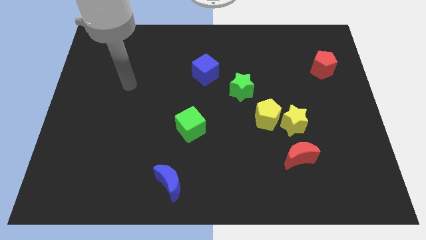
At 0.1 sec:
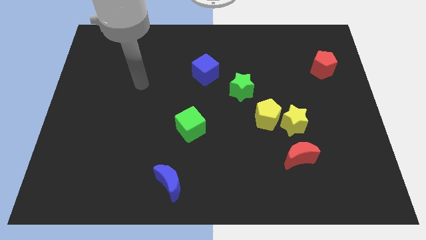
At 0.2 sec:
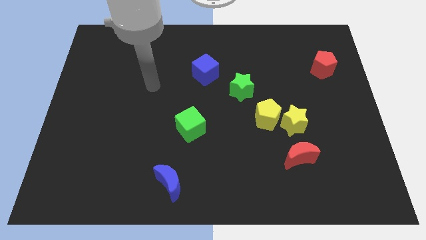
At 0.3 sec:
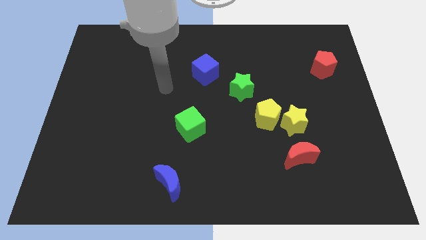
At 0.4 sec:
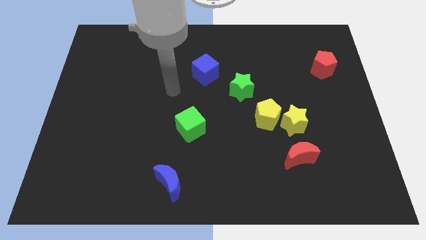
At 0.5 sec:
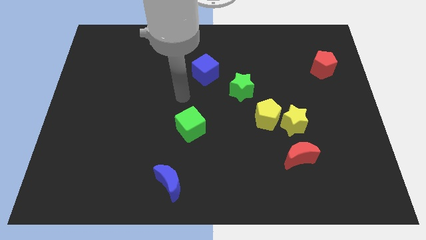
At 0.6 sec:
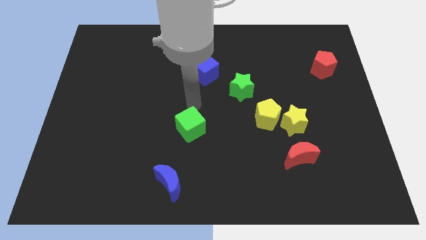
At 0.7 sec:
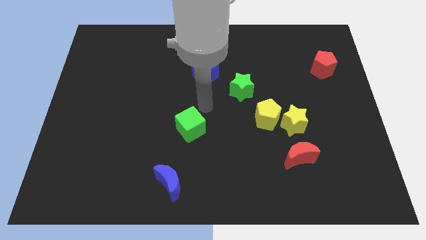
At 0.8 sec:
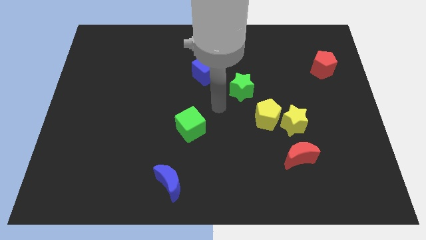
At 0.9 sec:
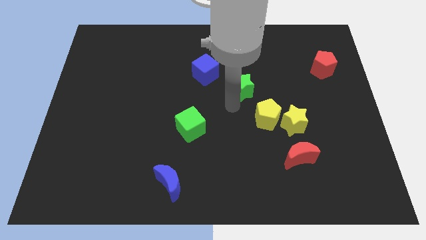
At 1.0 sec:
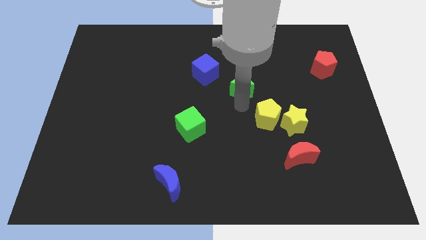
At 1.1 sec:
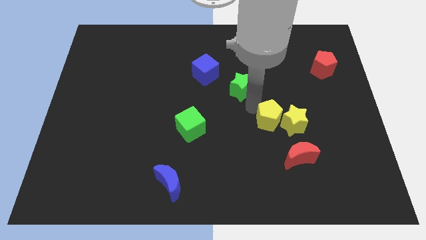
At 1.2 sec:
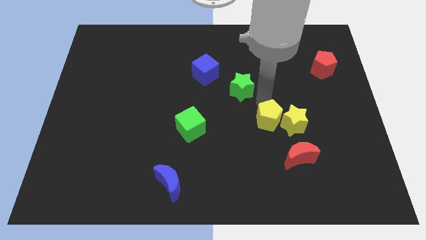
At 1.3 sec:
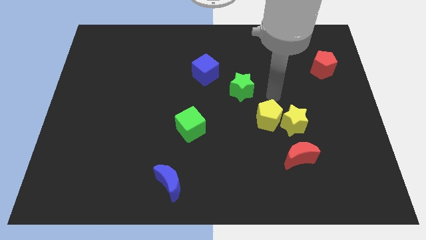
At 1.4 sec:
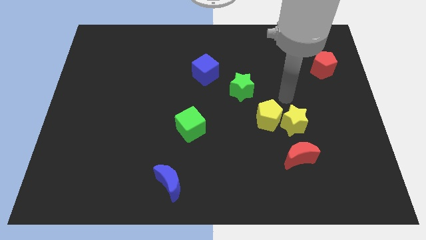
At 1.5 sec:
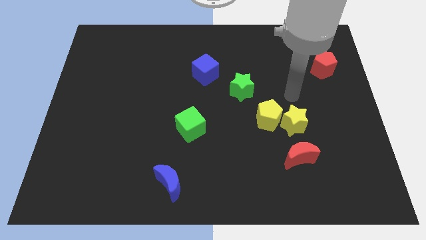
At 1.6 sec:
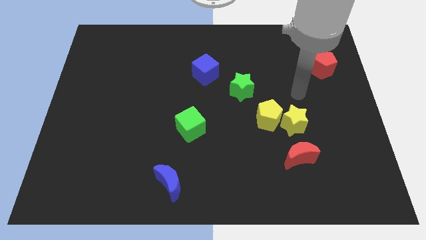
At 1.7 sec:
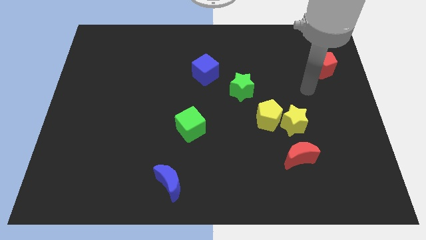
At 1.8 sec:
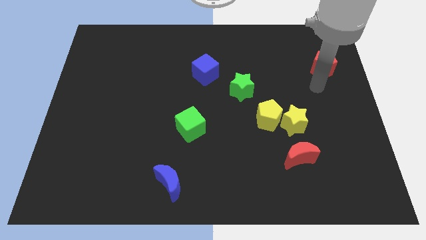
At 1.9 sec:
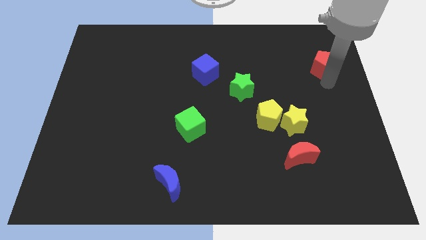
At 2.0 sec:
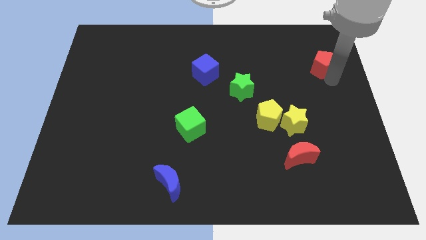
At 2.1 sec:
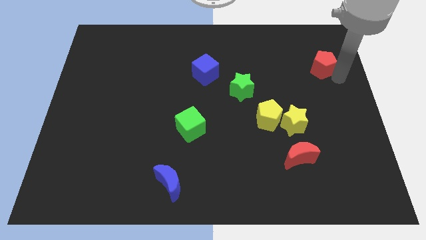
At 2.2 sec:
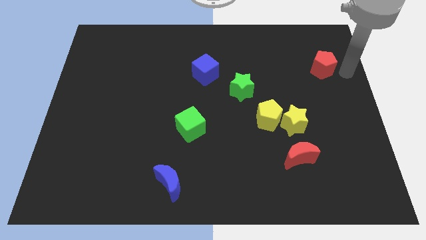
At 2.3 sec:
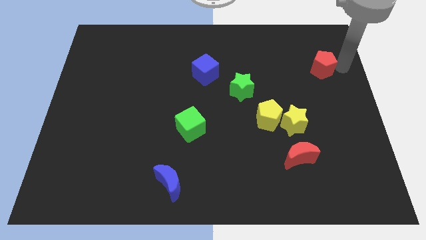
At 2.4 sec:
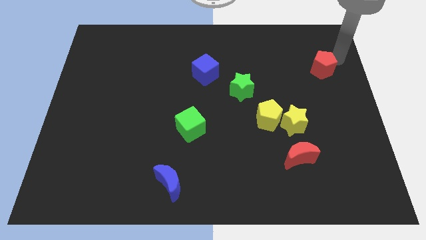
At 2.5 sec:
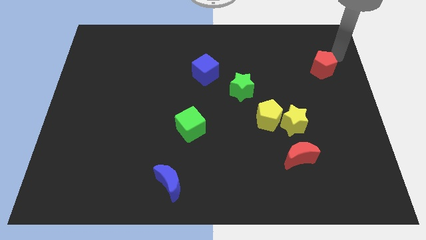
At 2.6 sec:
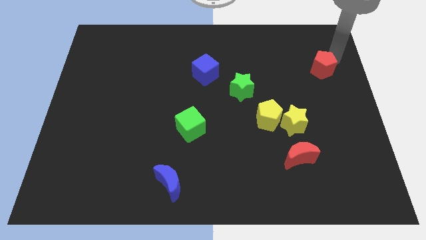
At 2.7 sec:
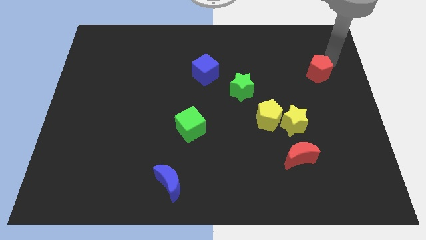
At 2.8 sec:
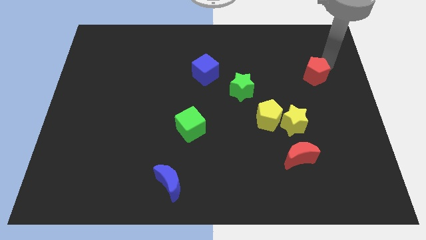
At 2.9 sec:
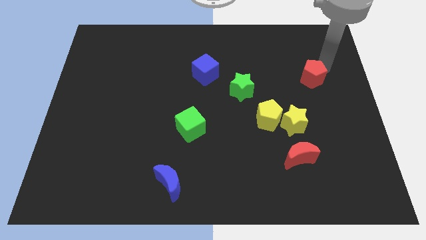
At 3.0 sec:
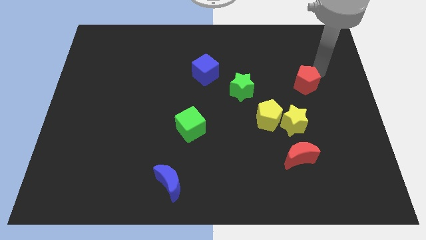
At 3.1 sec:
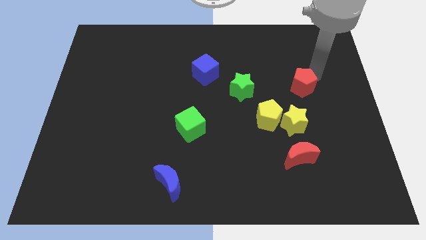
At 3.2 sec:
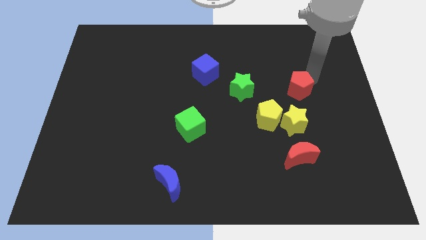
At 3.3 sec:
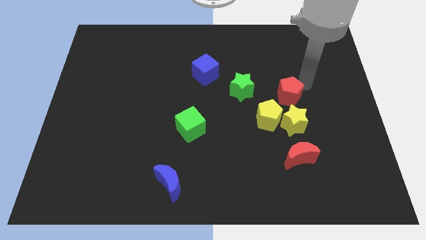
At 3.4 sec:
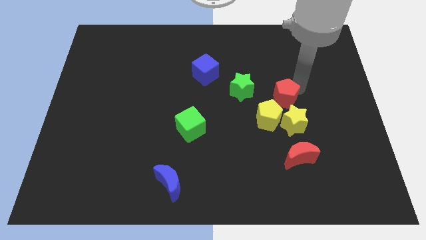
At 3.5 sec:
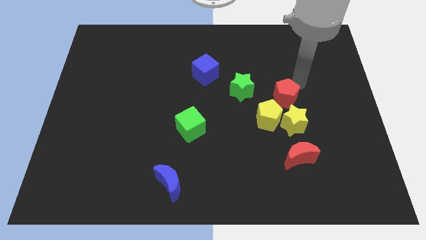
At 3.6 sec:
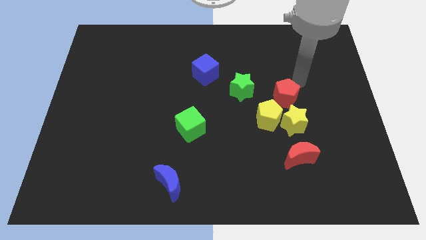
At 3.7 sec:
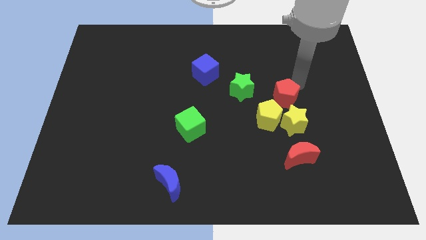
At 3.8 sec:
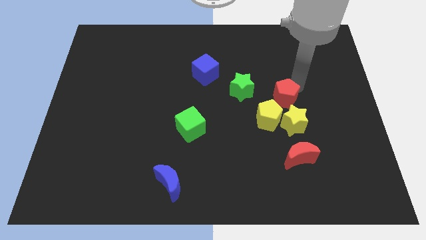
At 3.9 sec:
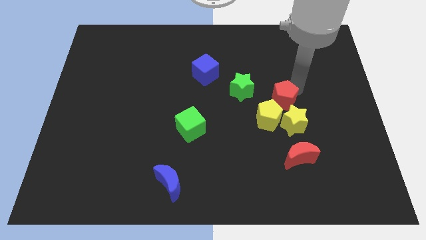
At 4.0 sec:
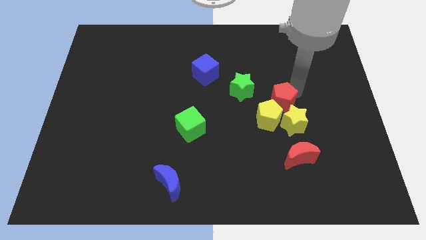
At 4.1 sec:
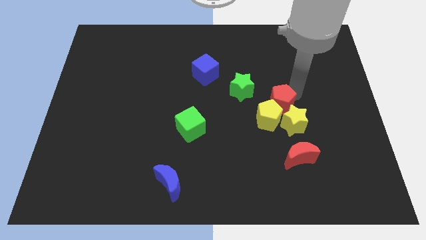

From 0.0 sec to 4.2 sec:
put the red pentagon to the yellow pentagon

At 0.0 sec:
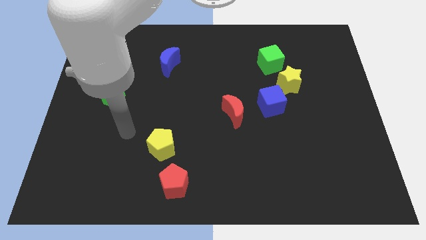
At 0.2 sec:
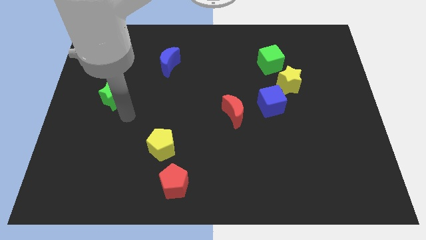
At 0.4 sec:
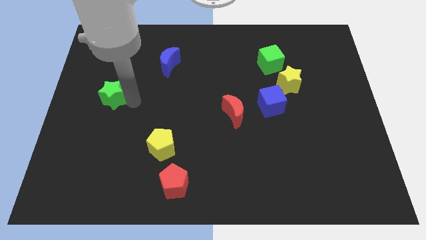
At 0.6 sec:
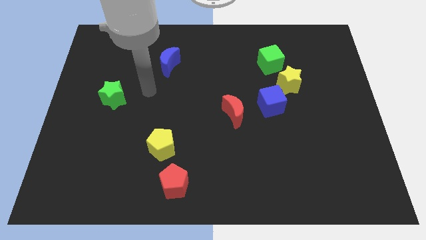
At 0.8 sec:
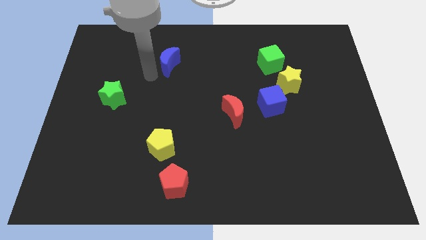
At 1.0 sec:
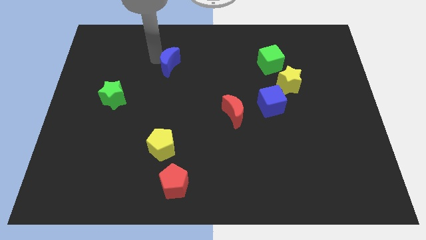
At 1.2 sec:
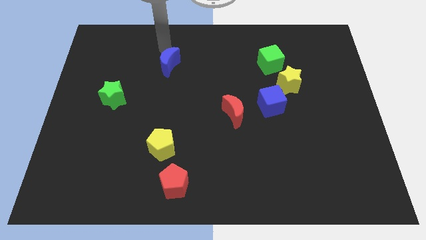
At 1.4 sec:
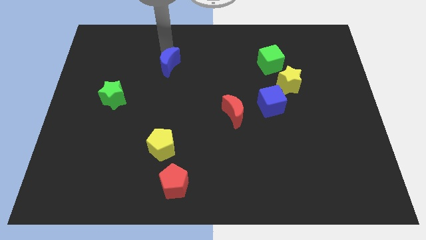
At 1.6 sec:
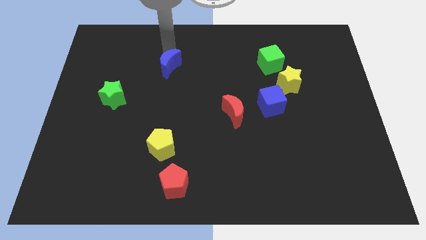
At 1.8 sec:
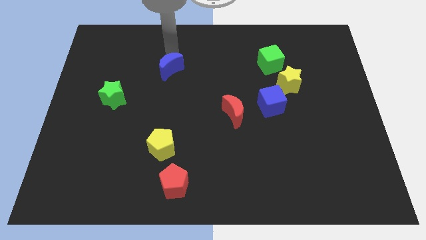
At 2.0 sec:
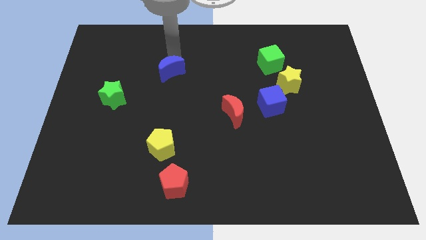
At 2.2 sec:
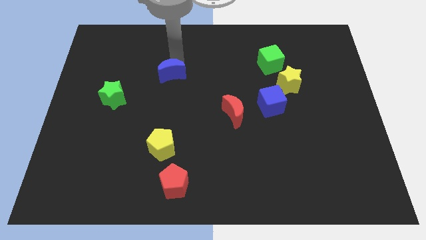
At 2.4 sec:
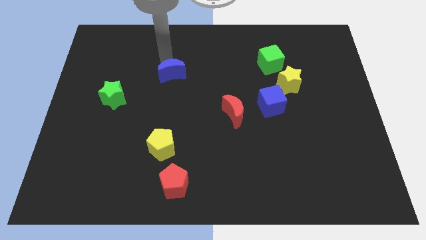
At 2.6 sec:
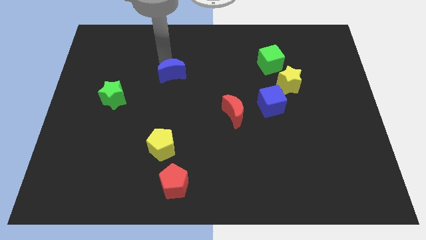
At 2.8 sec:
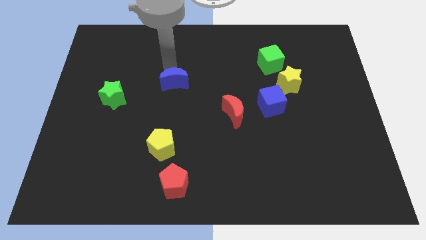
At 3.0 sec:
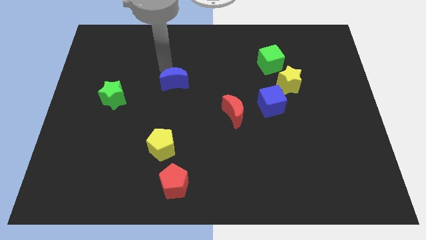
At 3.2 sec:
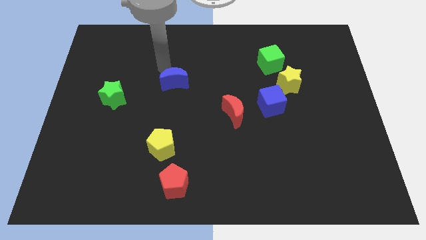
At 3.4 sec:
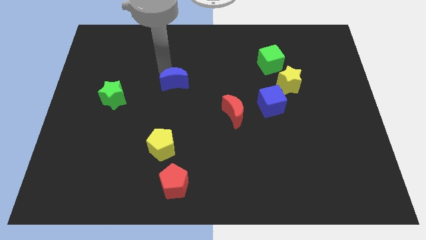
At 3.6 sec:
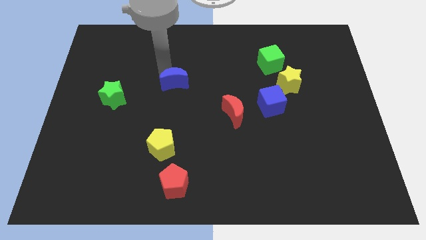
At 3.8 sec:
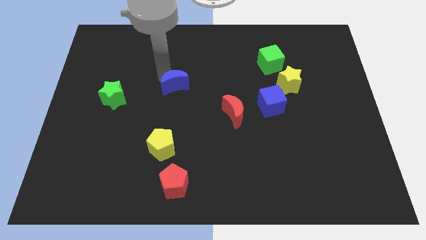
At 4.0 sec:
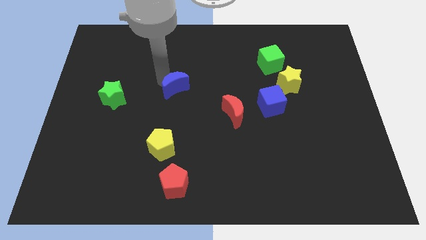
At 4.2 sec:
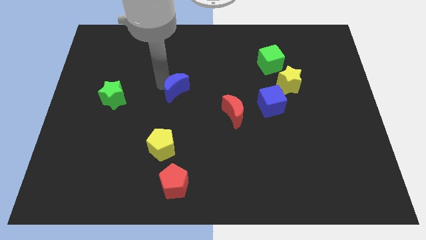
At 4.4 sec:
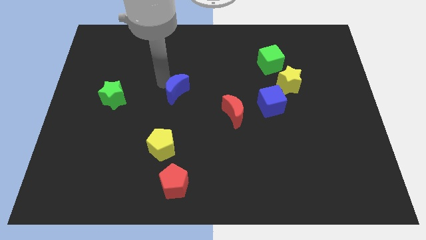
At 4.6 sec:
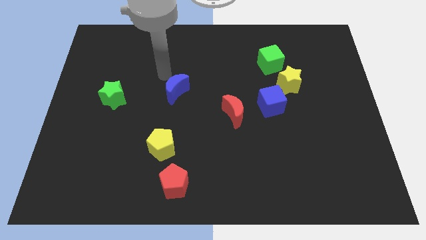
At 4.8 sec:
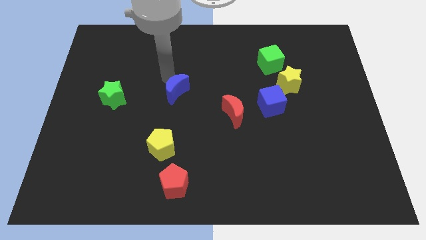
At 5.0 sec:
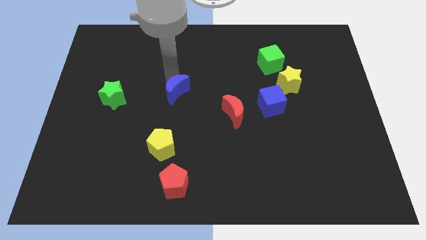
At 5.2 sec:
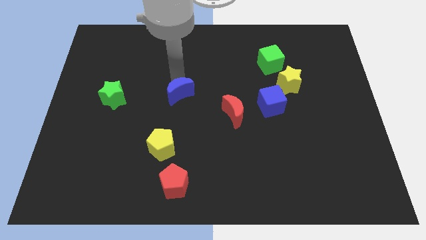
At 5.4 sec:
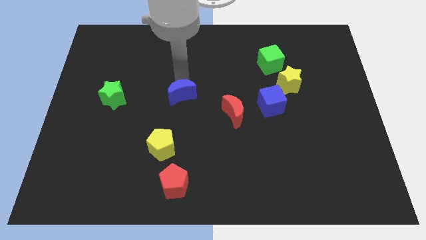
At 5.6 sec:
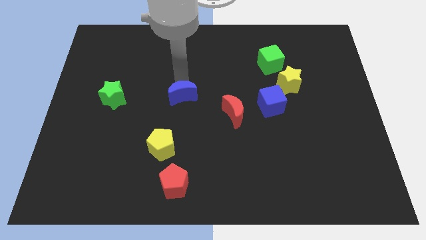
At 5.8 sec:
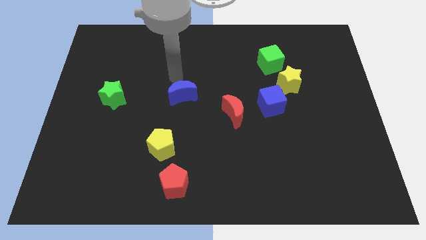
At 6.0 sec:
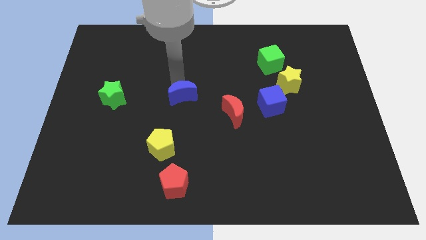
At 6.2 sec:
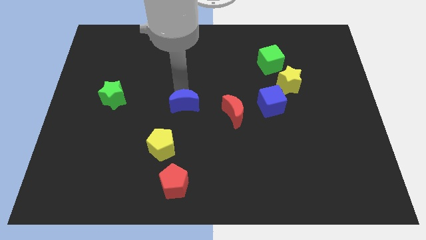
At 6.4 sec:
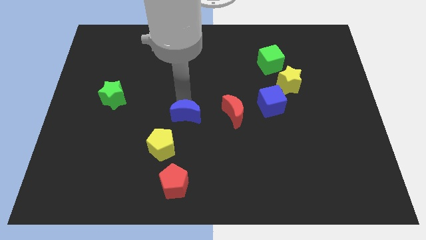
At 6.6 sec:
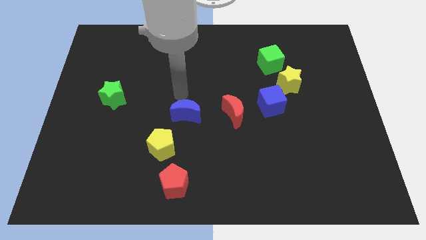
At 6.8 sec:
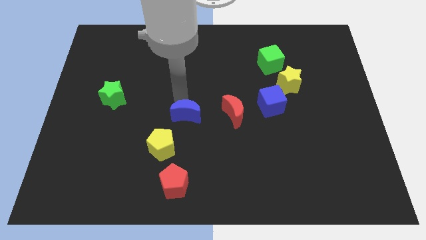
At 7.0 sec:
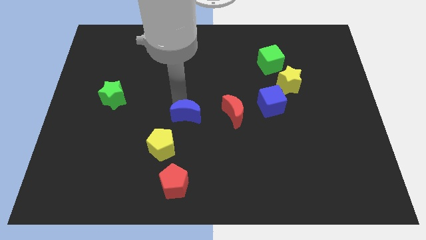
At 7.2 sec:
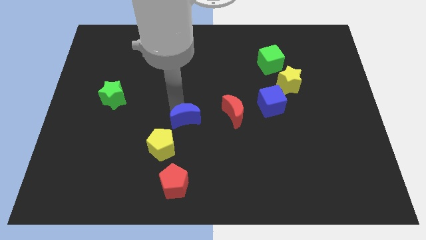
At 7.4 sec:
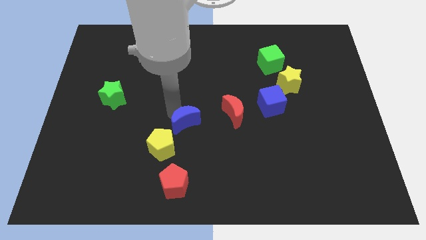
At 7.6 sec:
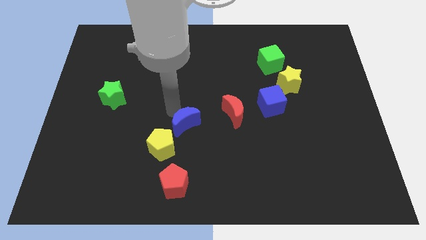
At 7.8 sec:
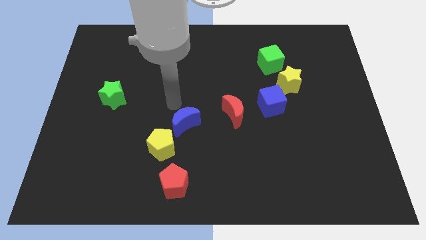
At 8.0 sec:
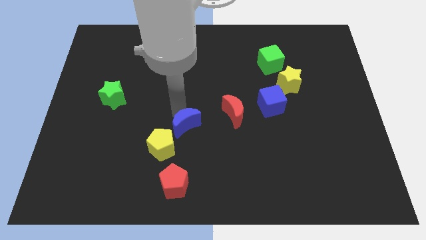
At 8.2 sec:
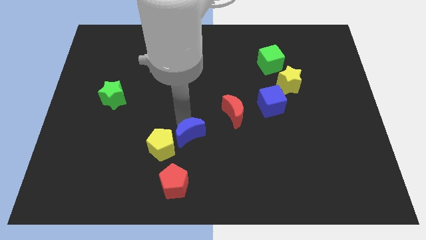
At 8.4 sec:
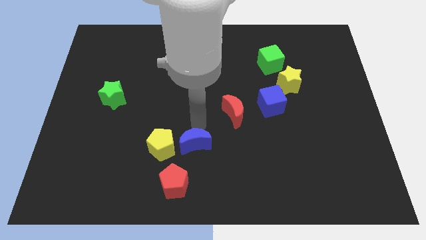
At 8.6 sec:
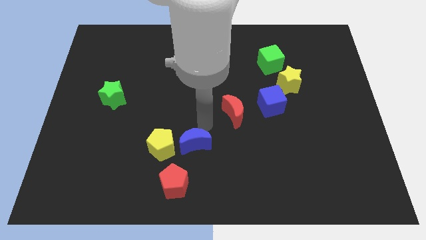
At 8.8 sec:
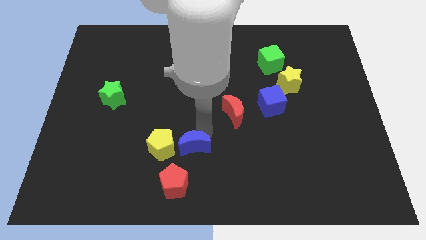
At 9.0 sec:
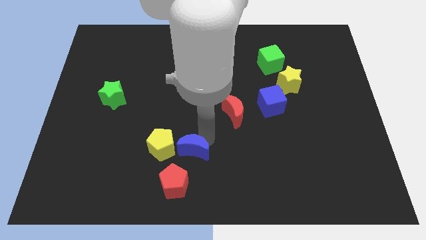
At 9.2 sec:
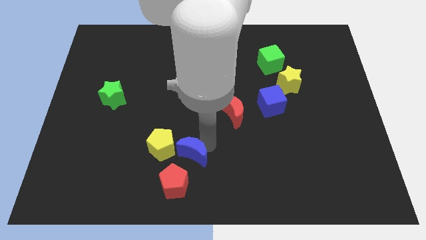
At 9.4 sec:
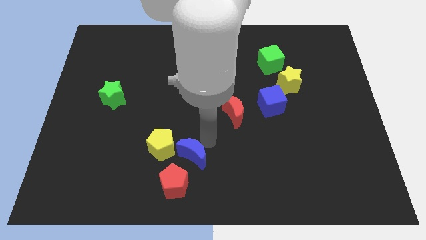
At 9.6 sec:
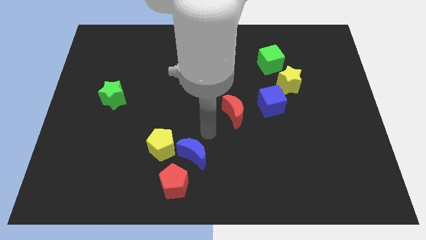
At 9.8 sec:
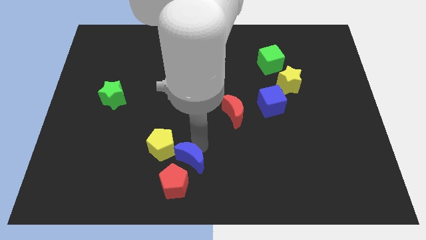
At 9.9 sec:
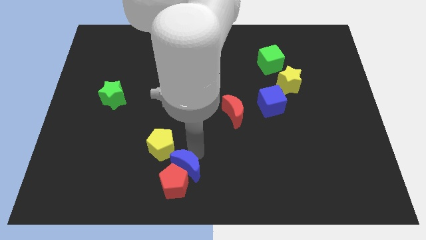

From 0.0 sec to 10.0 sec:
move the blue moon to the red pentagon
